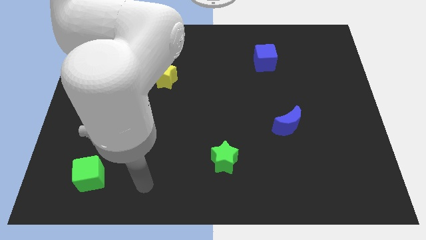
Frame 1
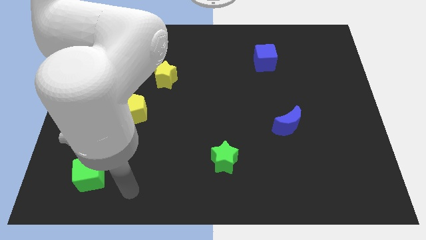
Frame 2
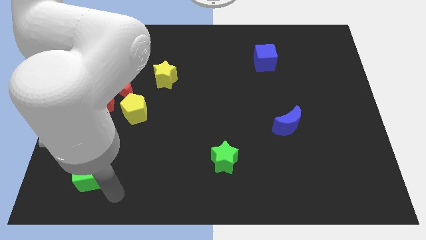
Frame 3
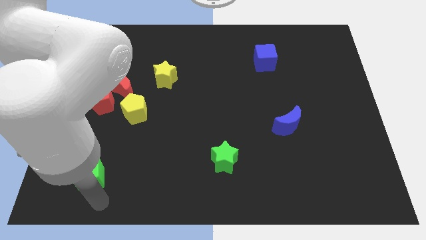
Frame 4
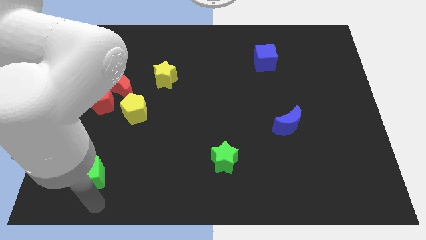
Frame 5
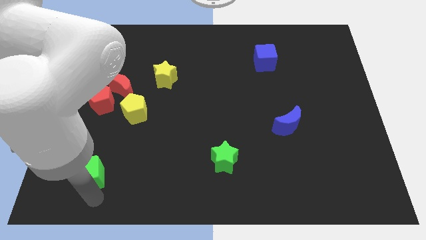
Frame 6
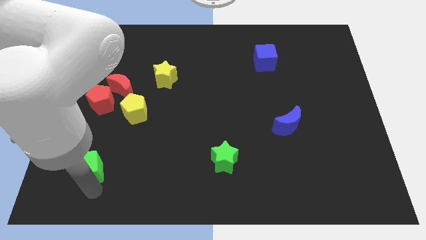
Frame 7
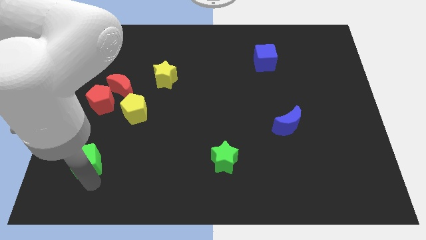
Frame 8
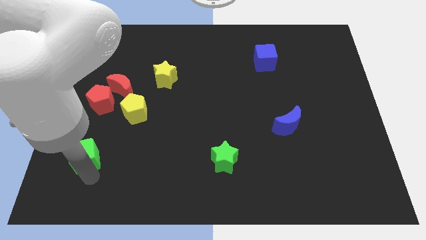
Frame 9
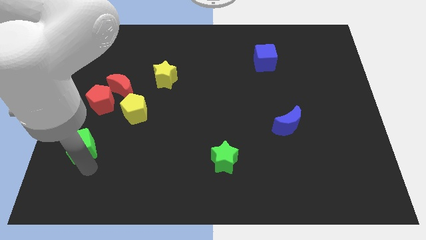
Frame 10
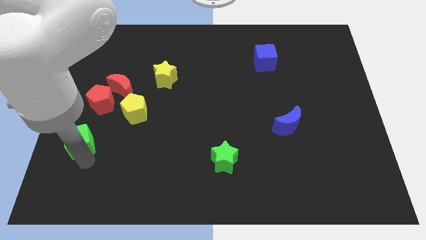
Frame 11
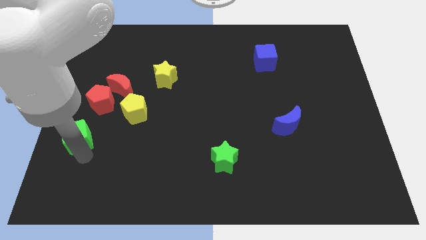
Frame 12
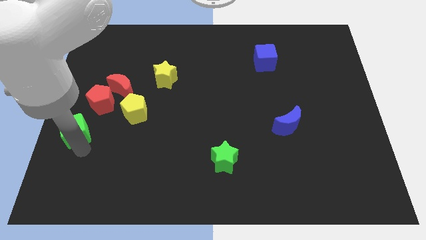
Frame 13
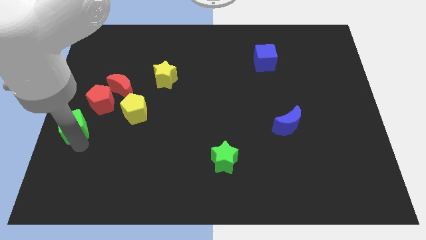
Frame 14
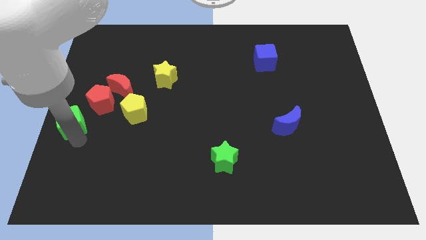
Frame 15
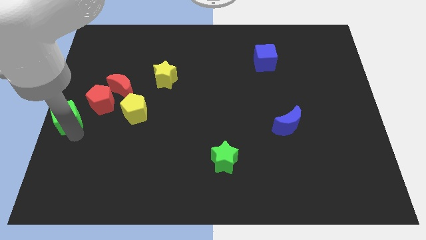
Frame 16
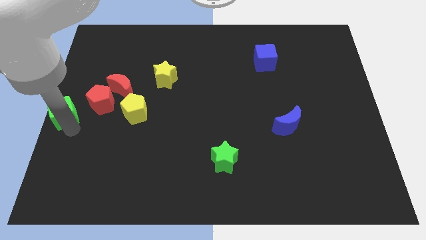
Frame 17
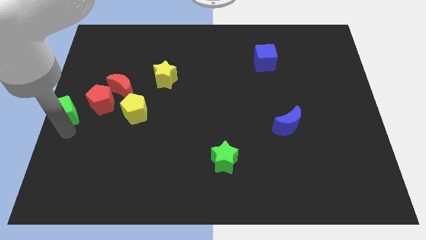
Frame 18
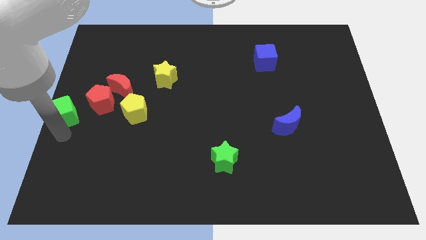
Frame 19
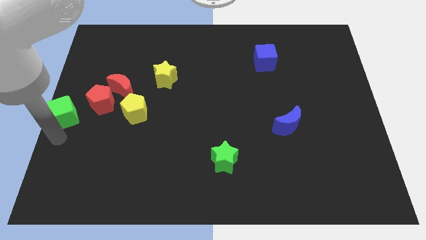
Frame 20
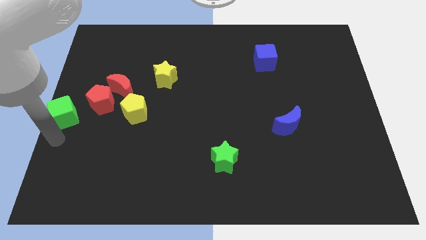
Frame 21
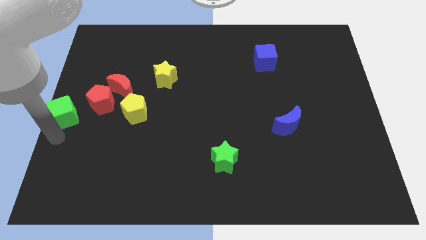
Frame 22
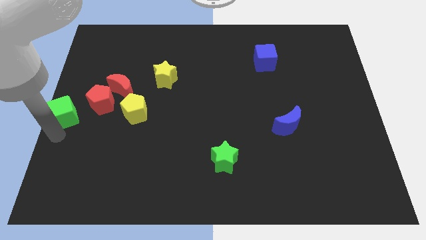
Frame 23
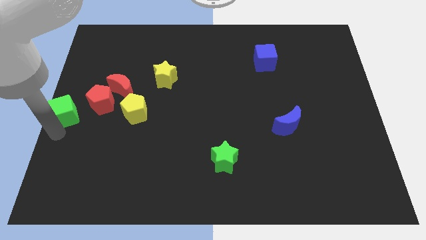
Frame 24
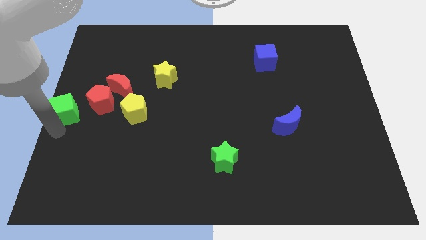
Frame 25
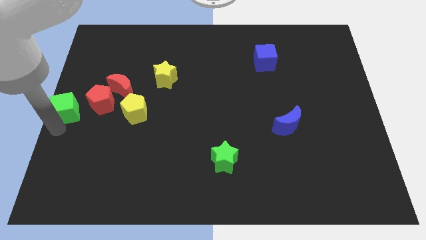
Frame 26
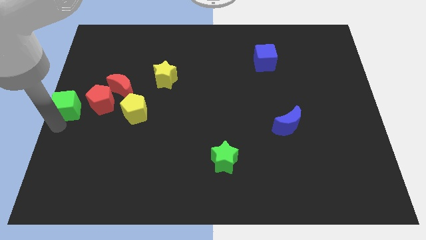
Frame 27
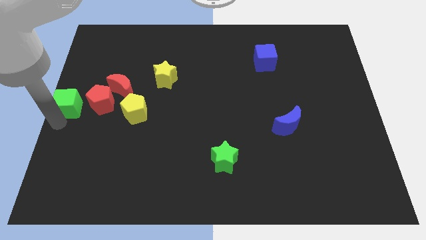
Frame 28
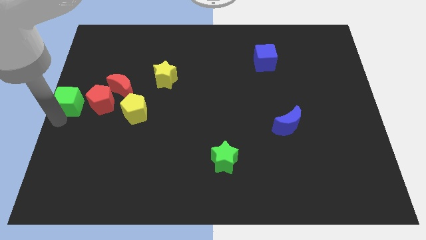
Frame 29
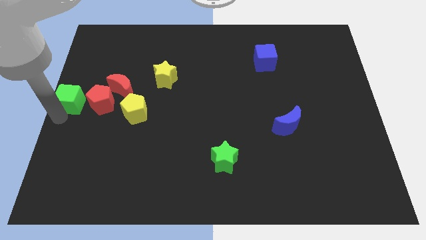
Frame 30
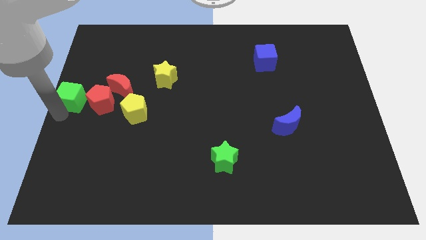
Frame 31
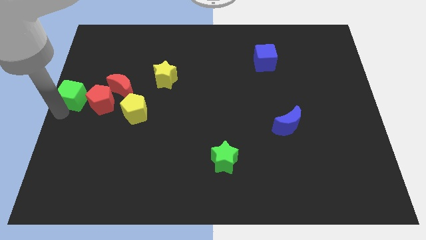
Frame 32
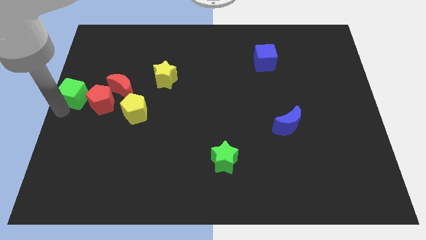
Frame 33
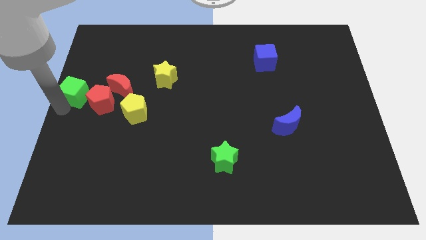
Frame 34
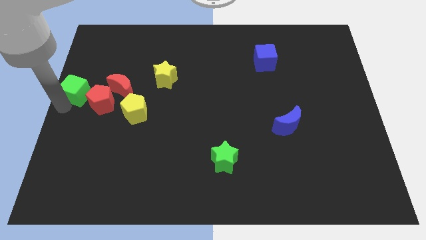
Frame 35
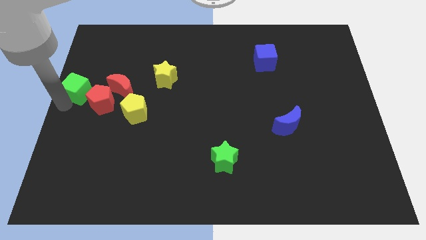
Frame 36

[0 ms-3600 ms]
slide the green cube up

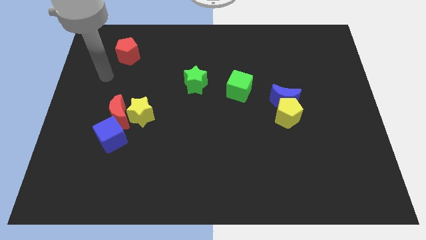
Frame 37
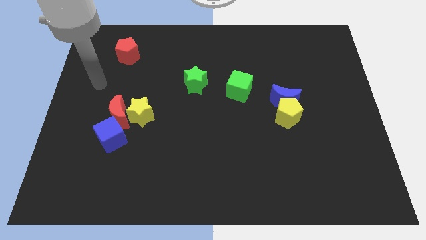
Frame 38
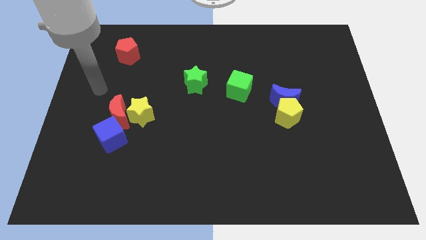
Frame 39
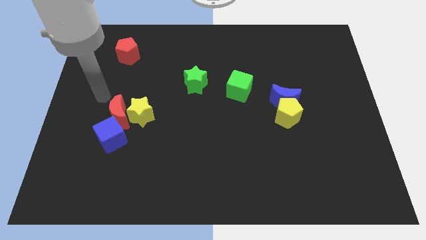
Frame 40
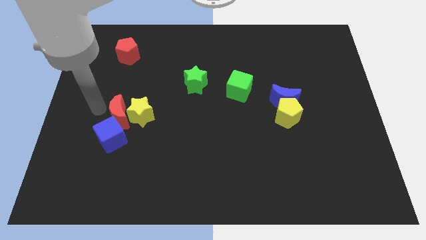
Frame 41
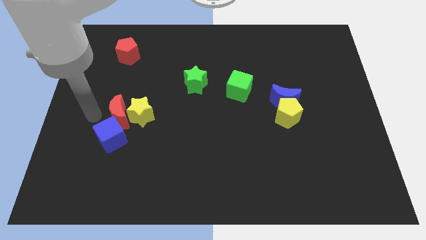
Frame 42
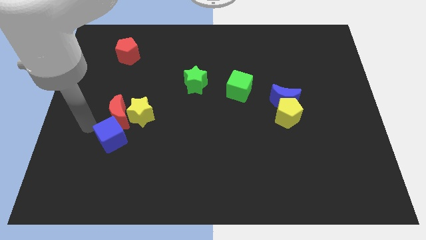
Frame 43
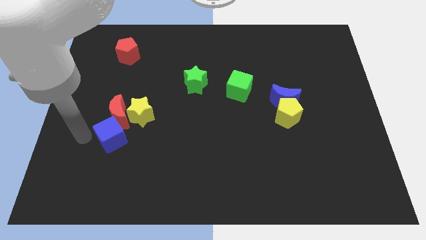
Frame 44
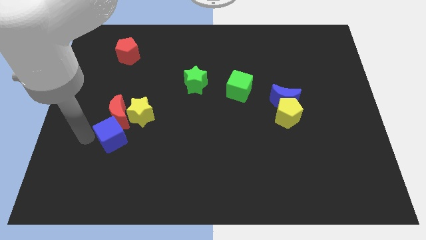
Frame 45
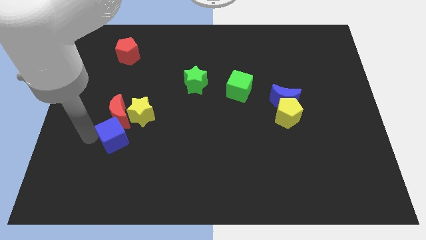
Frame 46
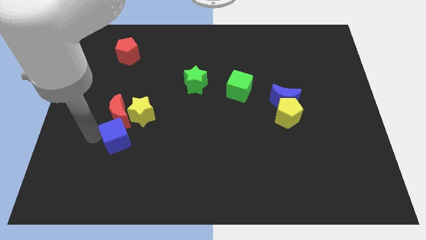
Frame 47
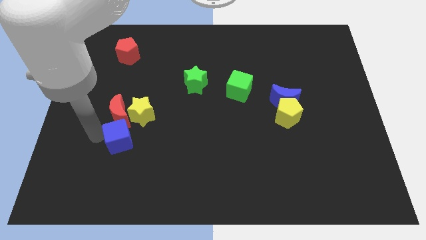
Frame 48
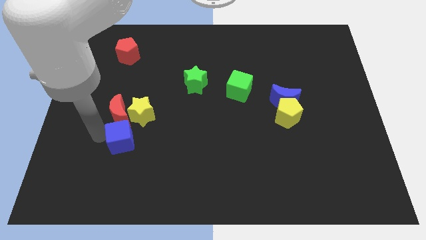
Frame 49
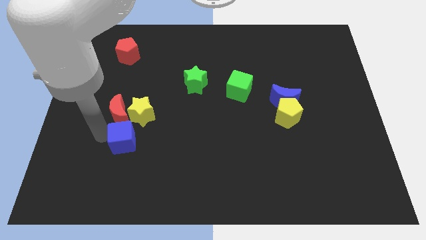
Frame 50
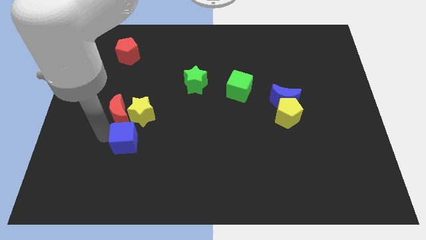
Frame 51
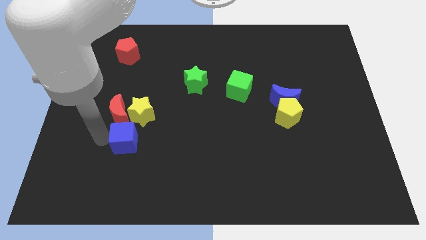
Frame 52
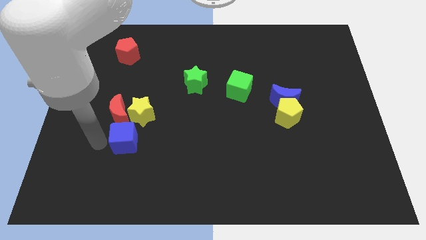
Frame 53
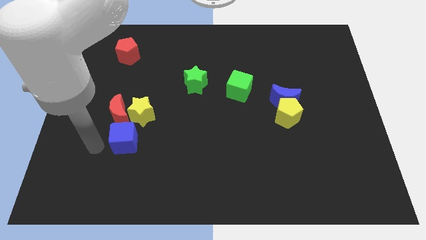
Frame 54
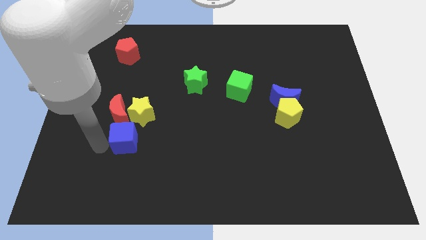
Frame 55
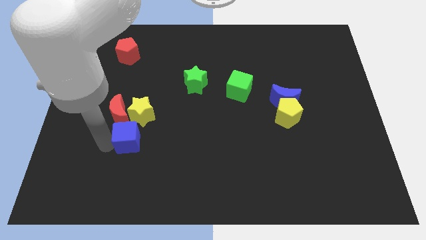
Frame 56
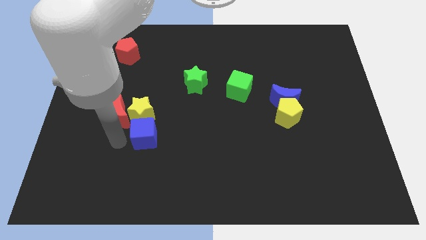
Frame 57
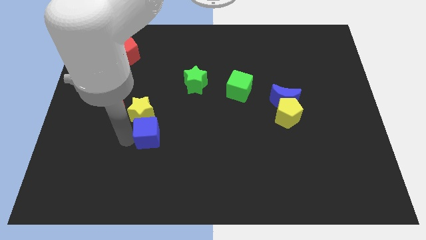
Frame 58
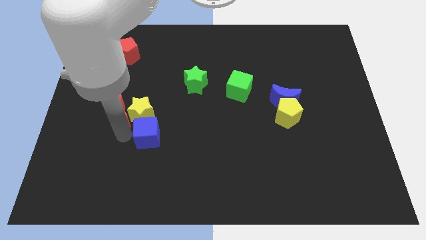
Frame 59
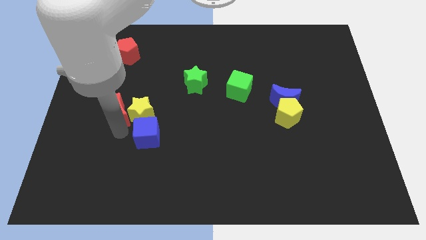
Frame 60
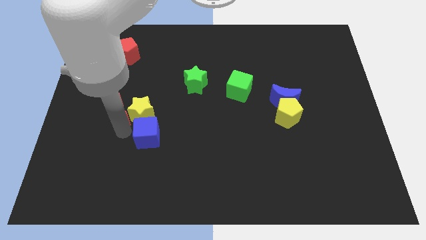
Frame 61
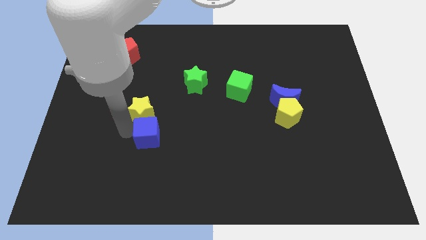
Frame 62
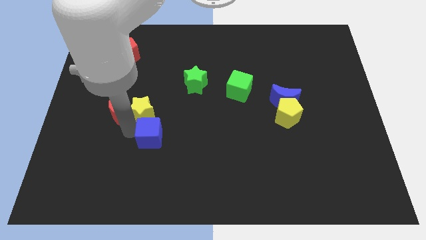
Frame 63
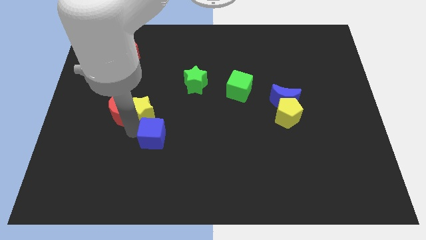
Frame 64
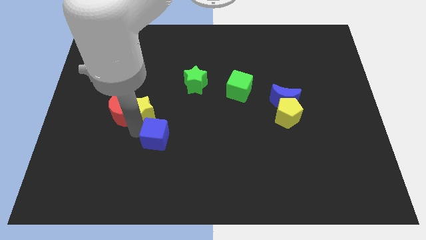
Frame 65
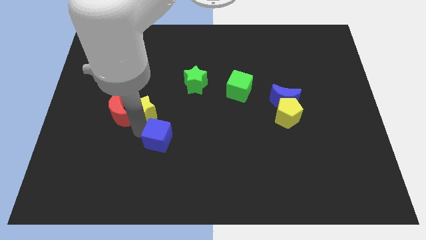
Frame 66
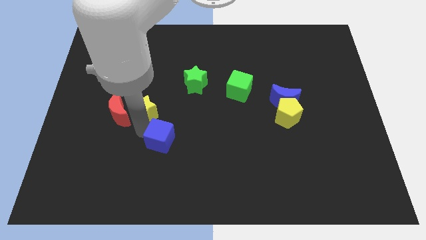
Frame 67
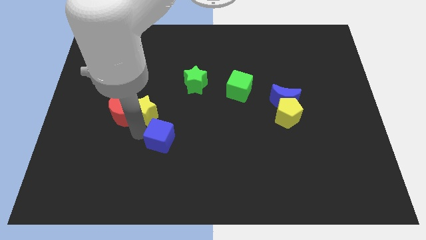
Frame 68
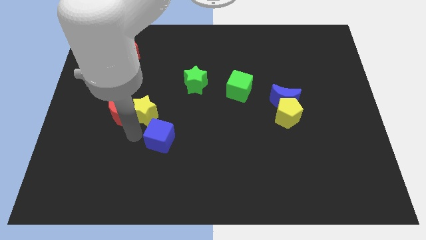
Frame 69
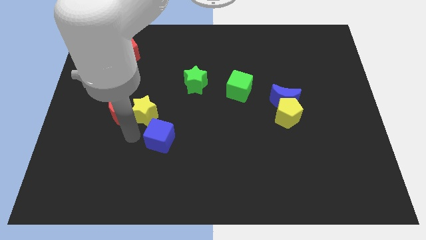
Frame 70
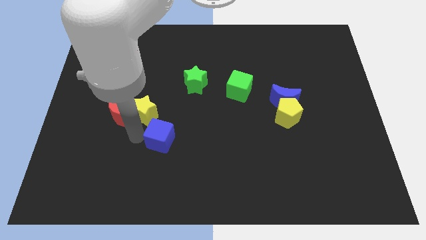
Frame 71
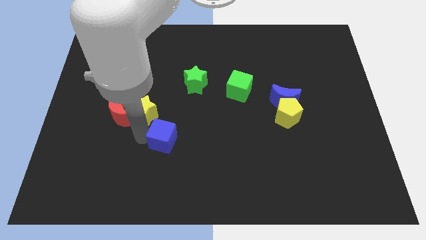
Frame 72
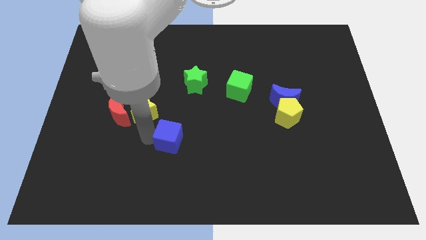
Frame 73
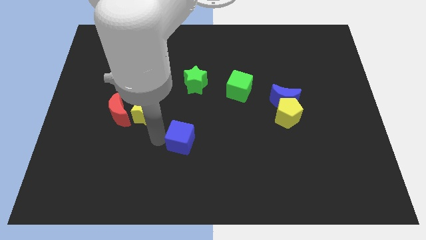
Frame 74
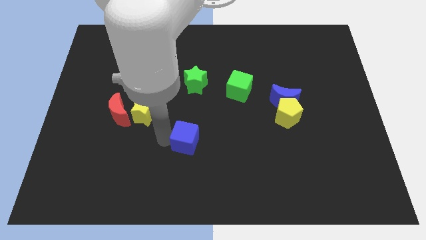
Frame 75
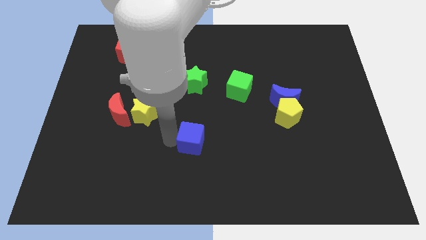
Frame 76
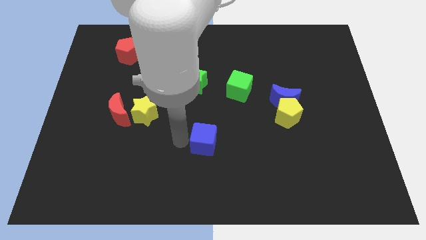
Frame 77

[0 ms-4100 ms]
move the blue cube to the right
